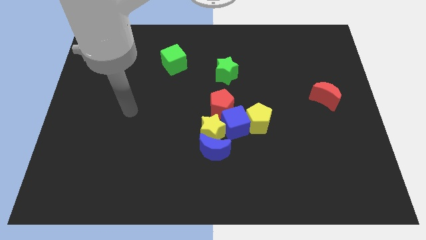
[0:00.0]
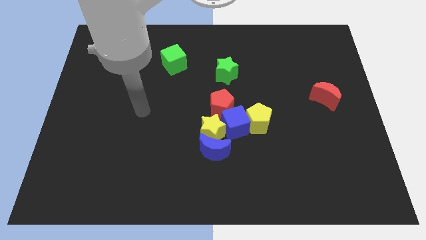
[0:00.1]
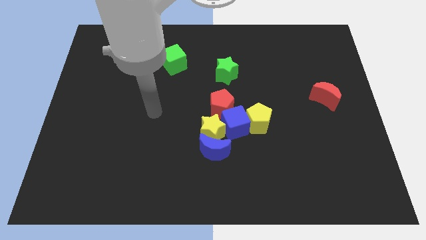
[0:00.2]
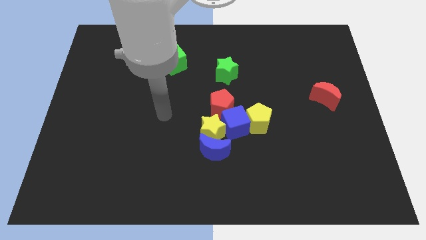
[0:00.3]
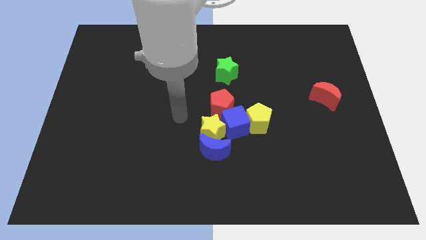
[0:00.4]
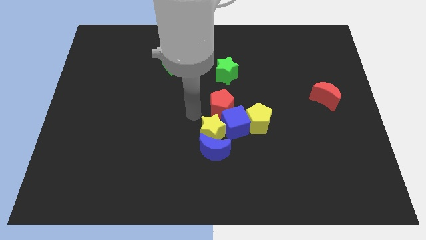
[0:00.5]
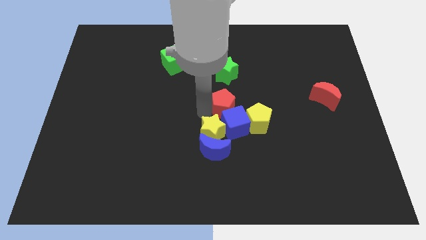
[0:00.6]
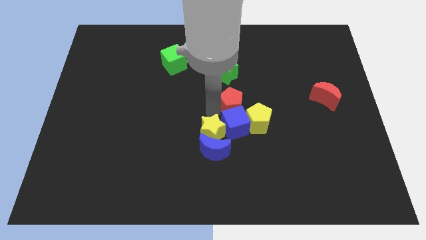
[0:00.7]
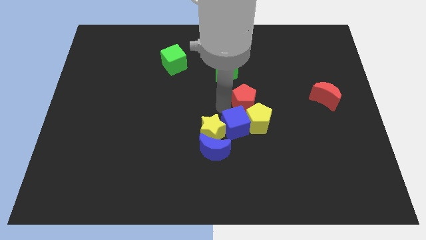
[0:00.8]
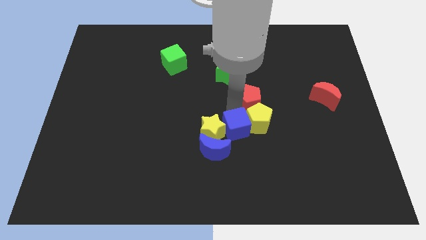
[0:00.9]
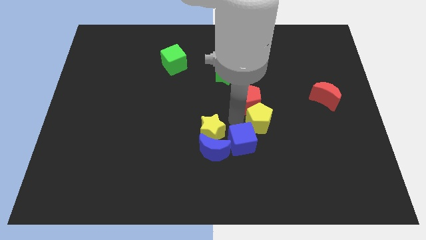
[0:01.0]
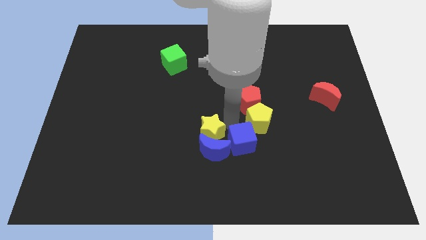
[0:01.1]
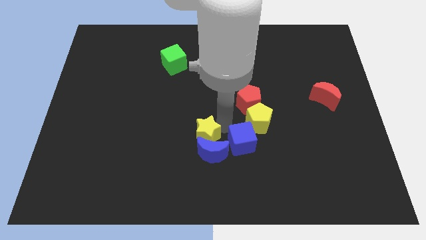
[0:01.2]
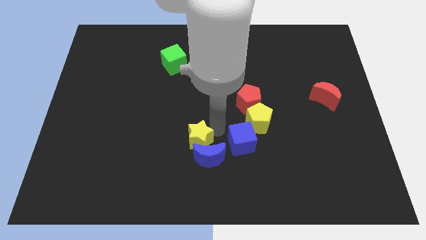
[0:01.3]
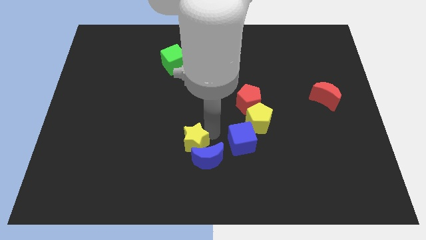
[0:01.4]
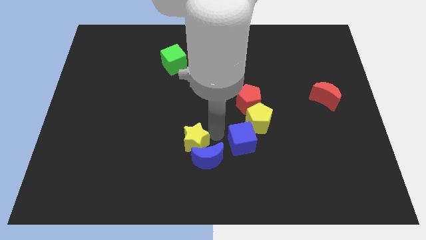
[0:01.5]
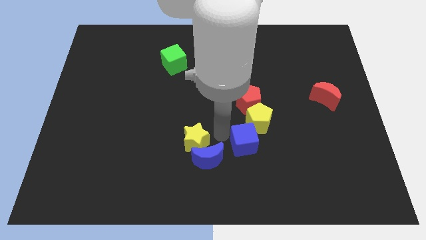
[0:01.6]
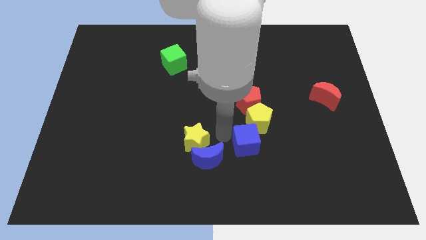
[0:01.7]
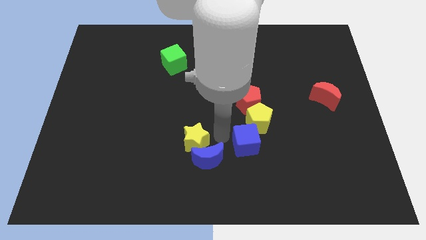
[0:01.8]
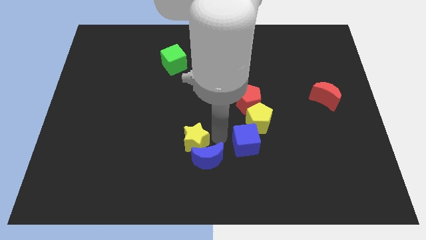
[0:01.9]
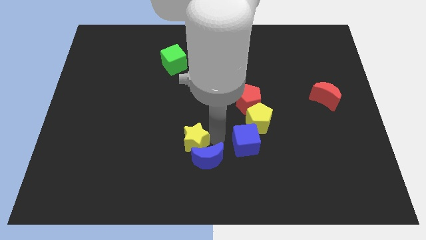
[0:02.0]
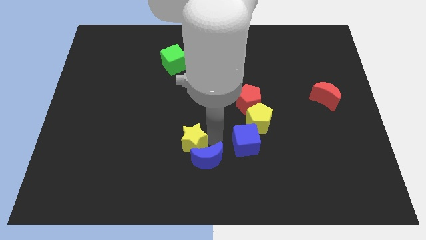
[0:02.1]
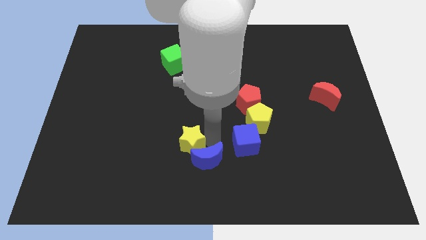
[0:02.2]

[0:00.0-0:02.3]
move the yellow star away from the clump

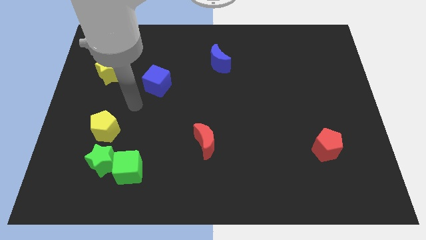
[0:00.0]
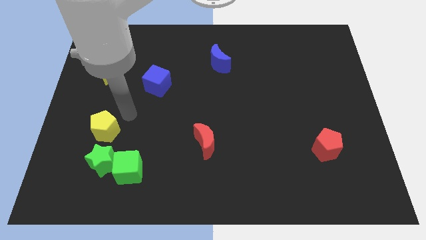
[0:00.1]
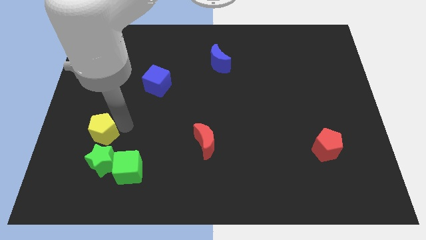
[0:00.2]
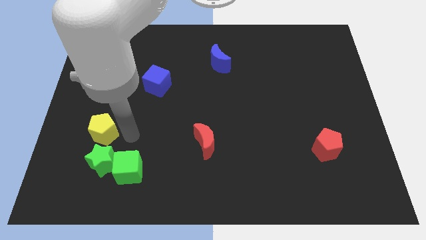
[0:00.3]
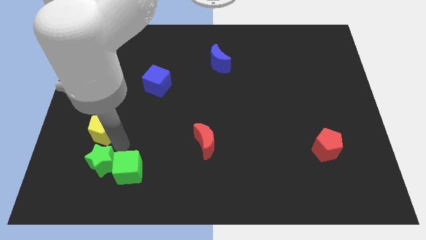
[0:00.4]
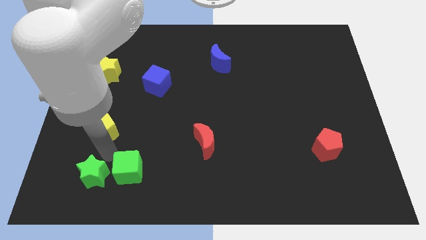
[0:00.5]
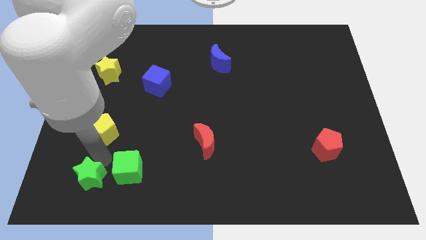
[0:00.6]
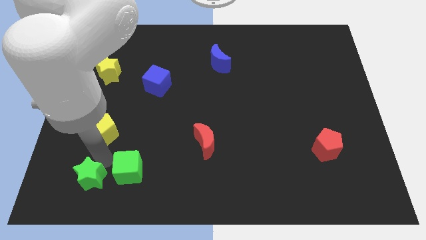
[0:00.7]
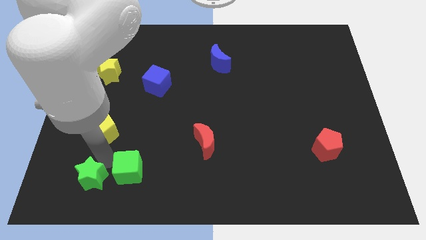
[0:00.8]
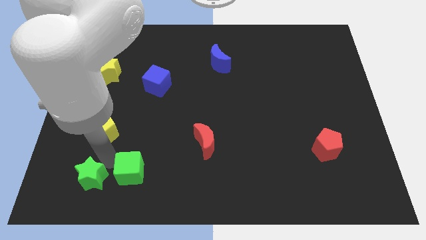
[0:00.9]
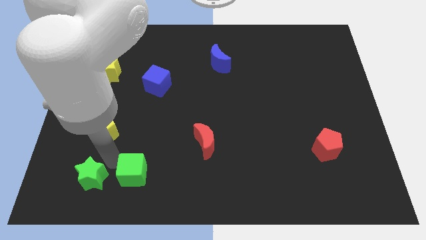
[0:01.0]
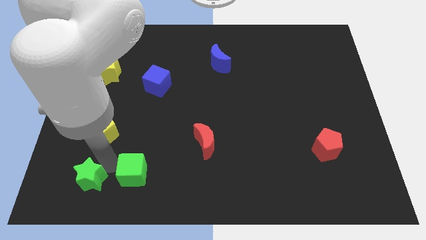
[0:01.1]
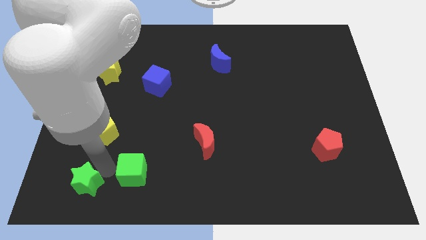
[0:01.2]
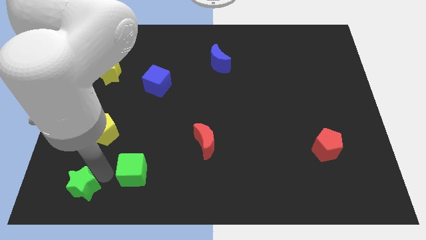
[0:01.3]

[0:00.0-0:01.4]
separate the green cube from the green star

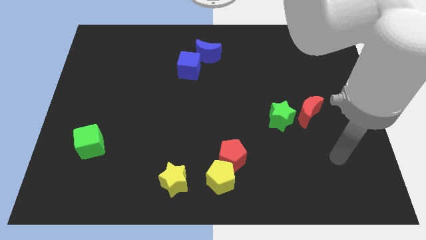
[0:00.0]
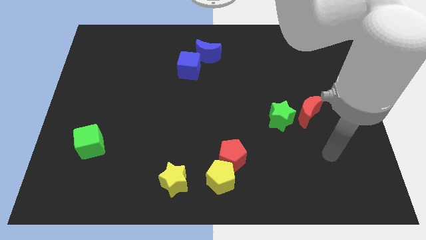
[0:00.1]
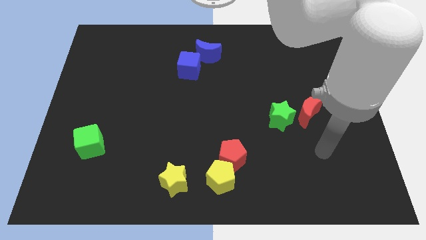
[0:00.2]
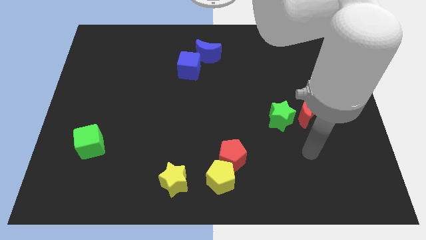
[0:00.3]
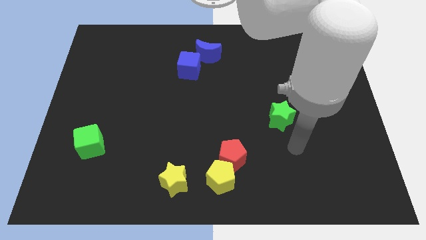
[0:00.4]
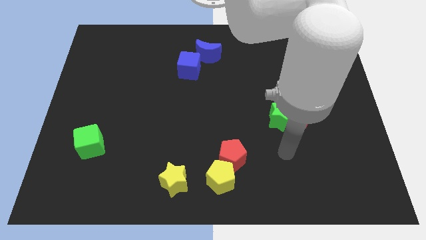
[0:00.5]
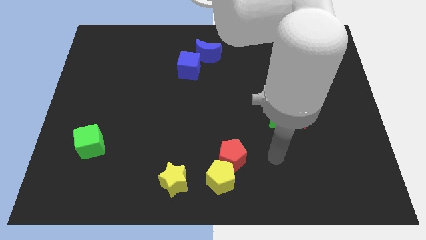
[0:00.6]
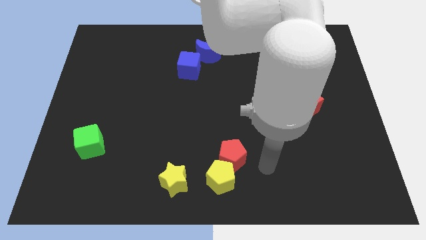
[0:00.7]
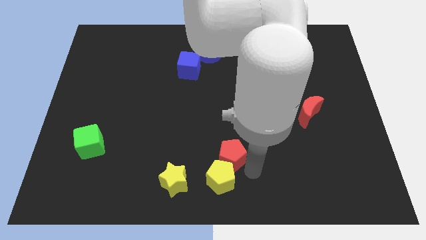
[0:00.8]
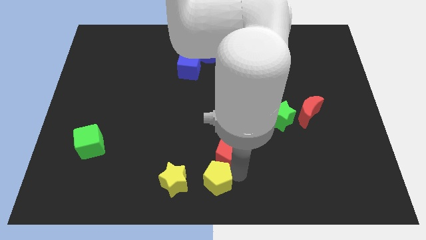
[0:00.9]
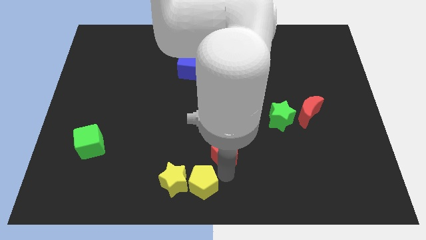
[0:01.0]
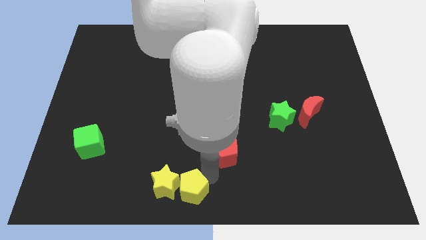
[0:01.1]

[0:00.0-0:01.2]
separate the red pentagon from the yellow pentagon

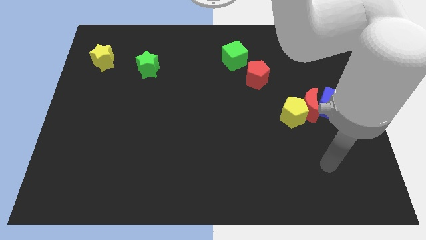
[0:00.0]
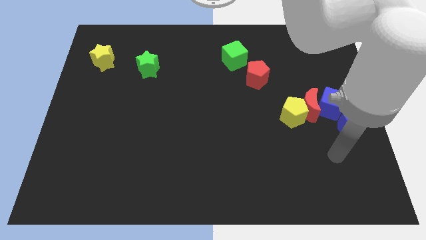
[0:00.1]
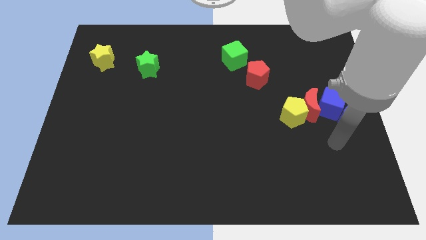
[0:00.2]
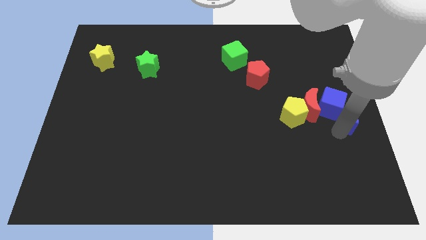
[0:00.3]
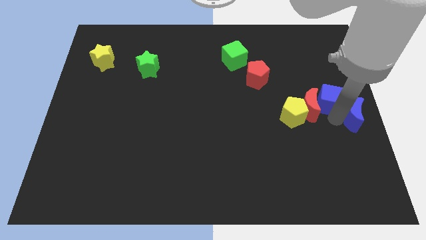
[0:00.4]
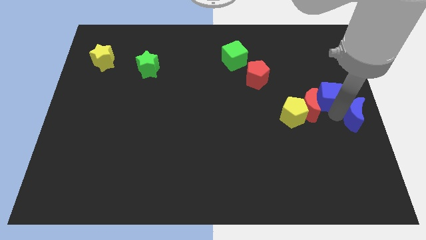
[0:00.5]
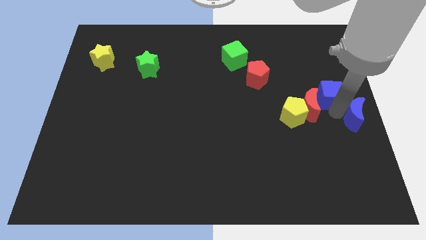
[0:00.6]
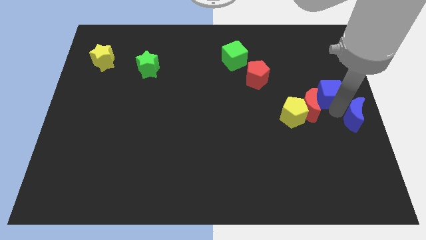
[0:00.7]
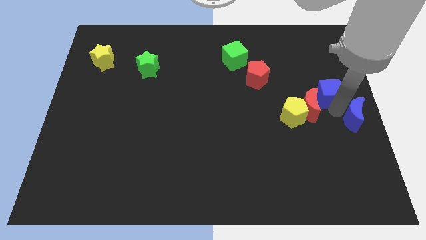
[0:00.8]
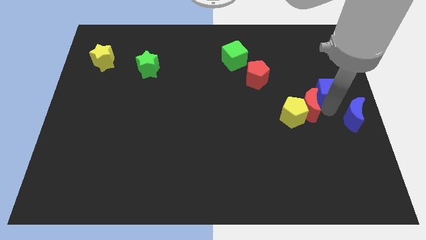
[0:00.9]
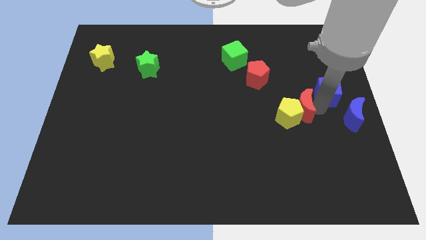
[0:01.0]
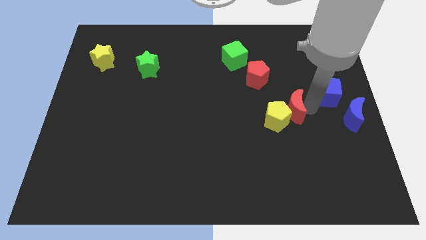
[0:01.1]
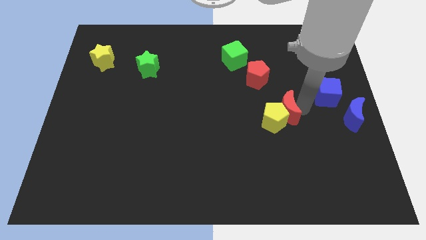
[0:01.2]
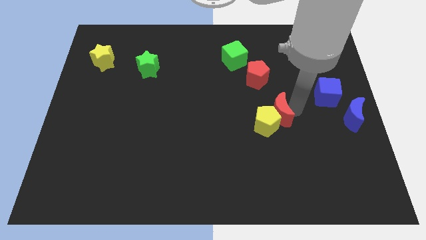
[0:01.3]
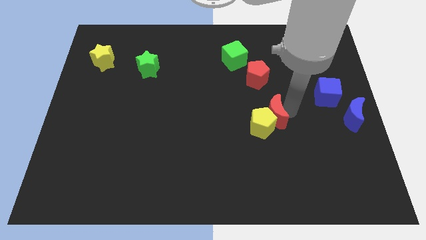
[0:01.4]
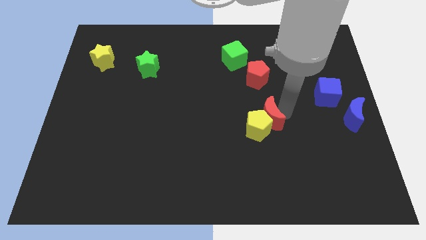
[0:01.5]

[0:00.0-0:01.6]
separate the red moon from the group of blocks

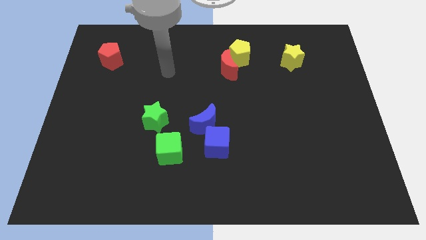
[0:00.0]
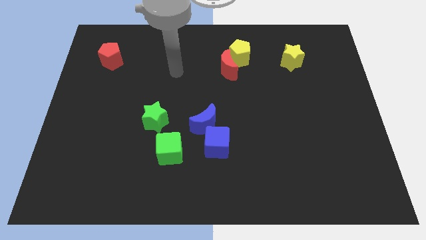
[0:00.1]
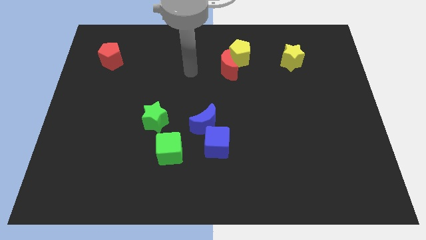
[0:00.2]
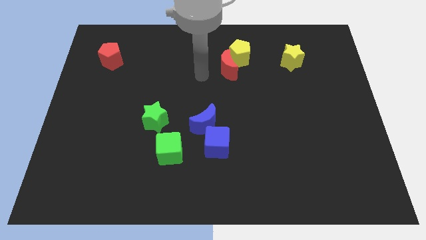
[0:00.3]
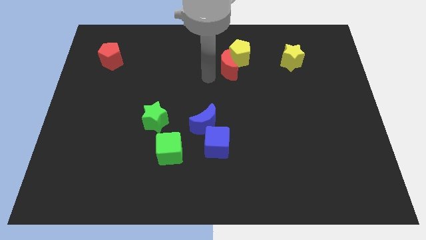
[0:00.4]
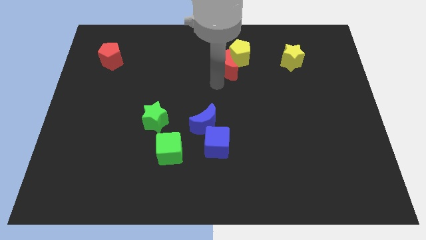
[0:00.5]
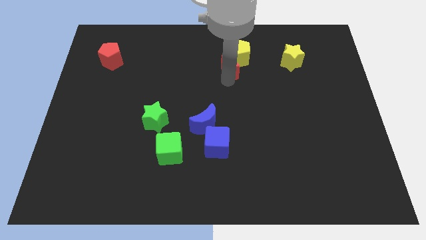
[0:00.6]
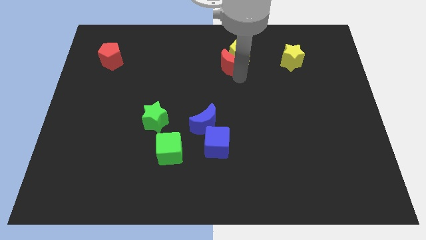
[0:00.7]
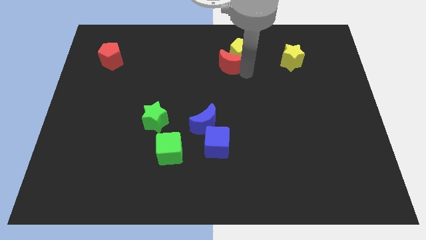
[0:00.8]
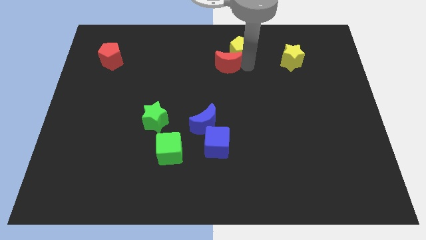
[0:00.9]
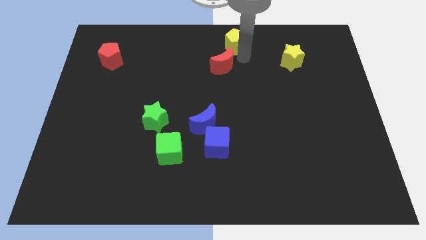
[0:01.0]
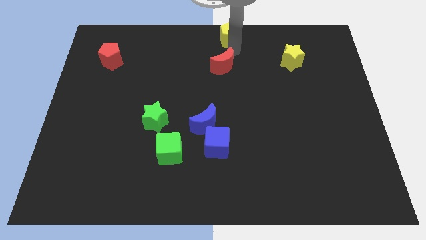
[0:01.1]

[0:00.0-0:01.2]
separate the red moon from the yellow pentagon

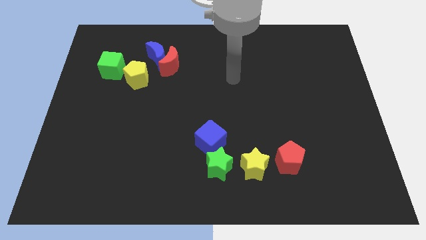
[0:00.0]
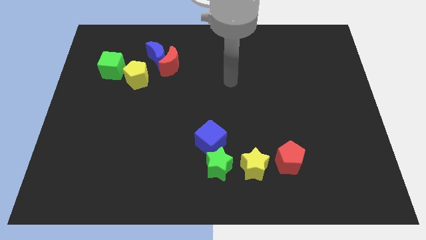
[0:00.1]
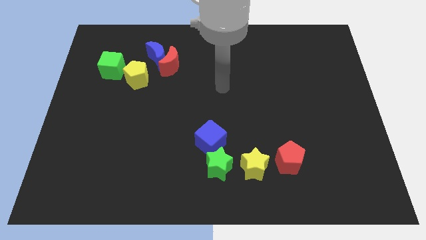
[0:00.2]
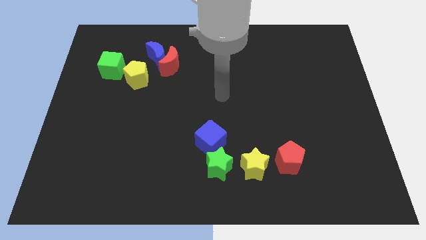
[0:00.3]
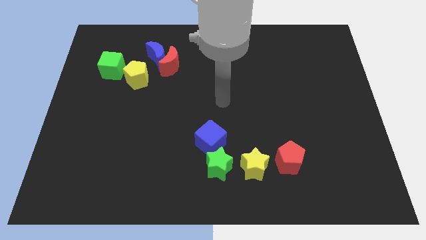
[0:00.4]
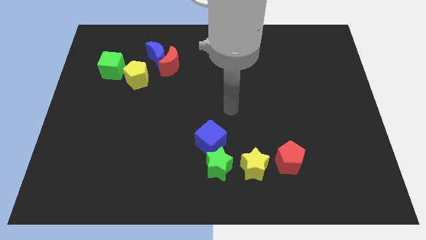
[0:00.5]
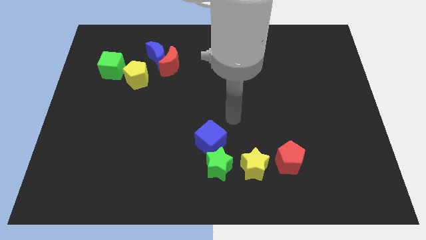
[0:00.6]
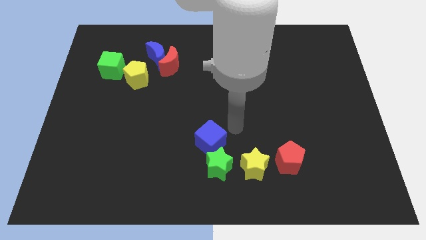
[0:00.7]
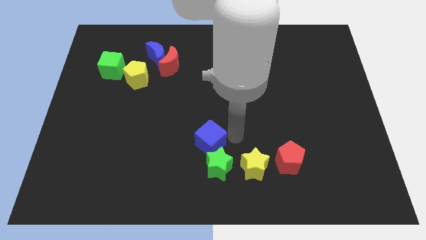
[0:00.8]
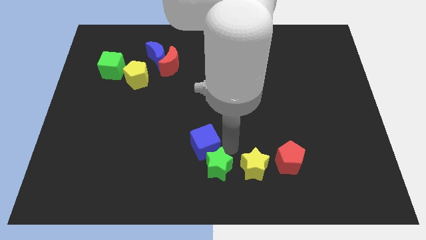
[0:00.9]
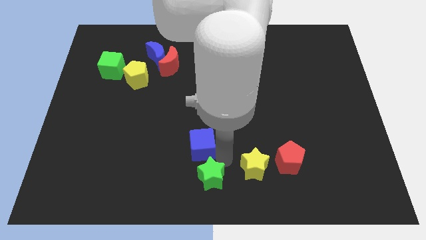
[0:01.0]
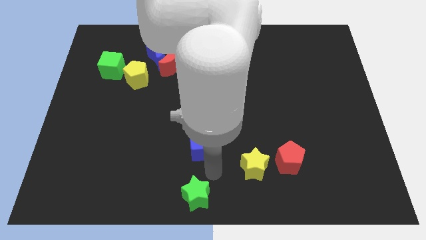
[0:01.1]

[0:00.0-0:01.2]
pull the blue cube apart from the green star

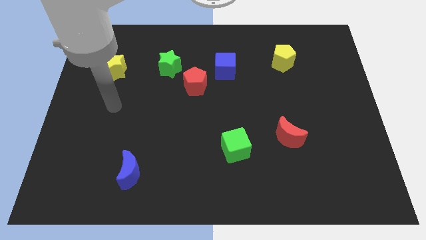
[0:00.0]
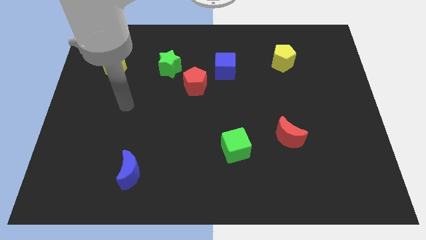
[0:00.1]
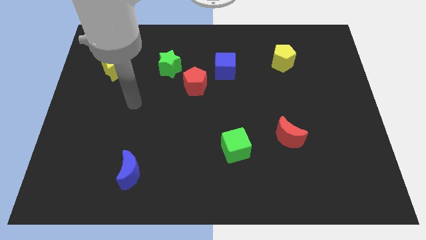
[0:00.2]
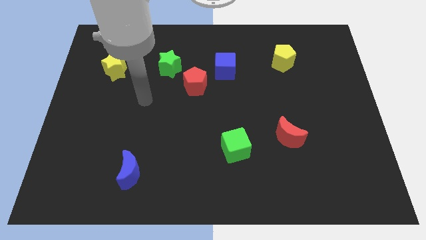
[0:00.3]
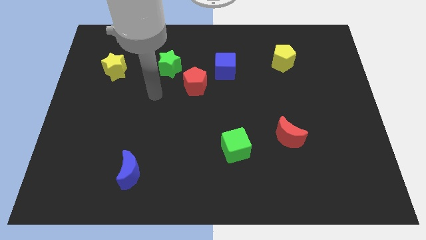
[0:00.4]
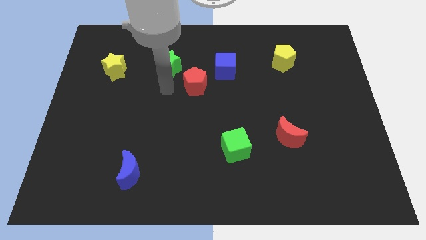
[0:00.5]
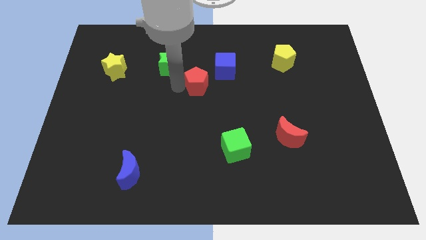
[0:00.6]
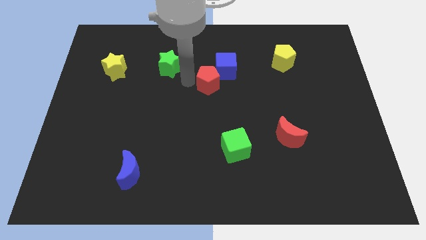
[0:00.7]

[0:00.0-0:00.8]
move the green star away from the red pentagon
